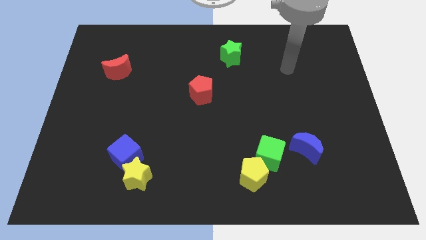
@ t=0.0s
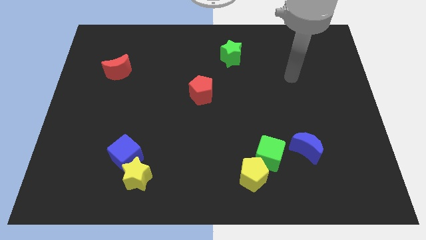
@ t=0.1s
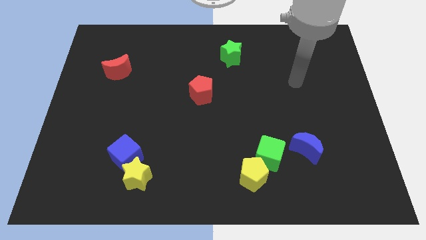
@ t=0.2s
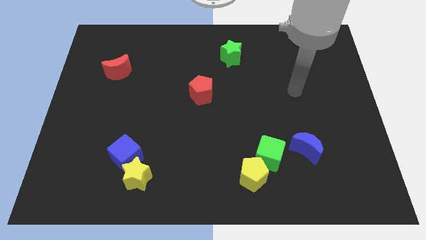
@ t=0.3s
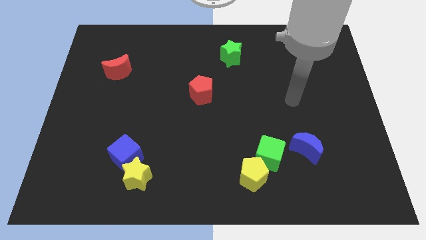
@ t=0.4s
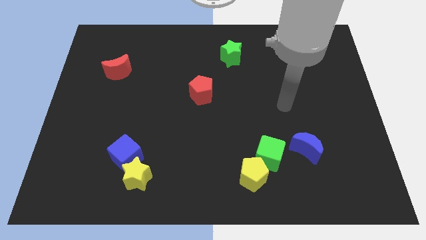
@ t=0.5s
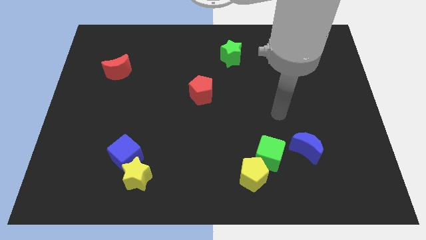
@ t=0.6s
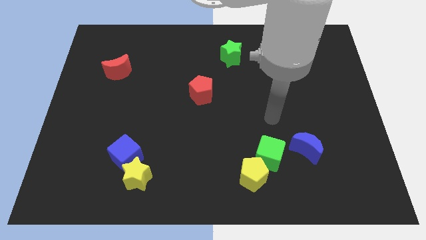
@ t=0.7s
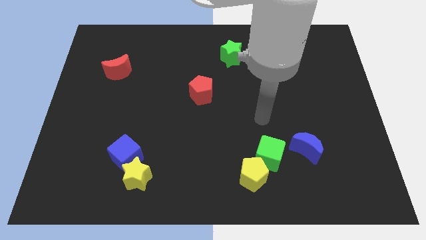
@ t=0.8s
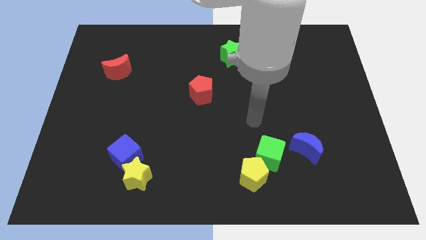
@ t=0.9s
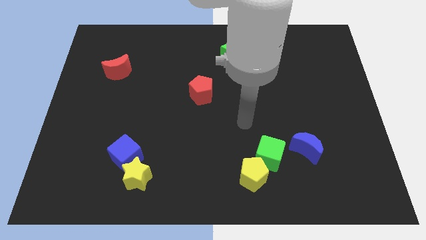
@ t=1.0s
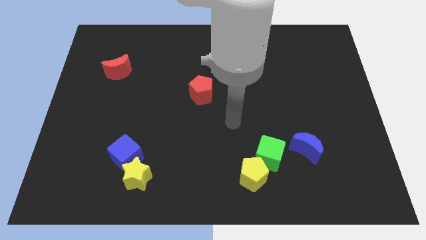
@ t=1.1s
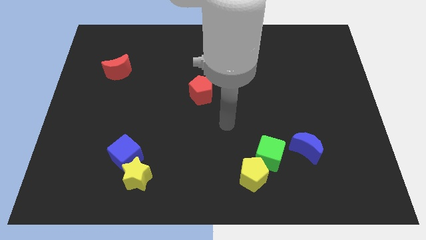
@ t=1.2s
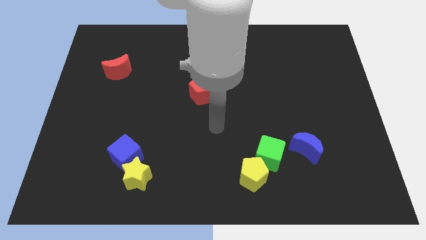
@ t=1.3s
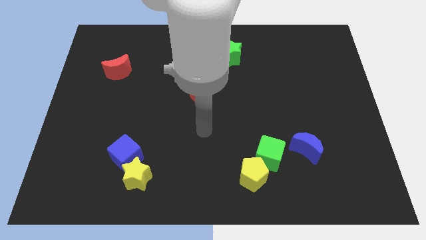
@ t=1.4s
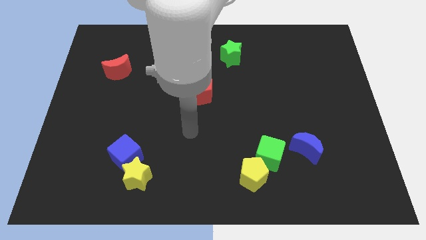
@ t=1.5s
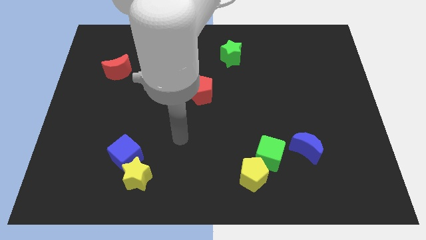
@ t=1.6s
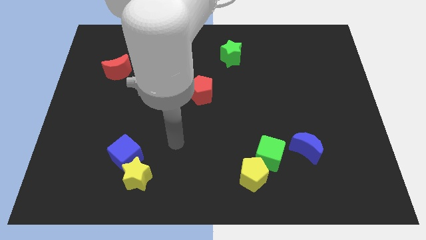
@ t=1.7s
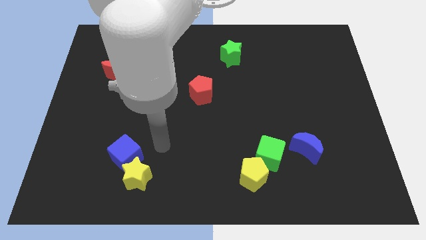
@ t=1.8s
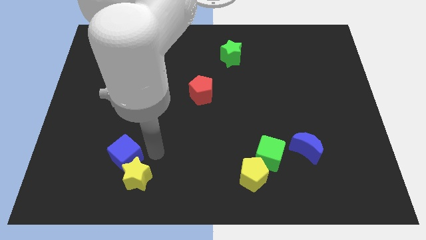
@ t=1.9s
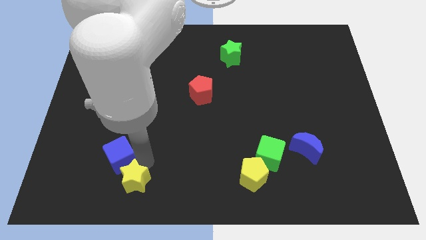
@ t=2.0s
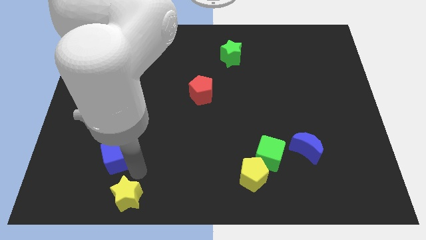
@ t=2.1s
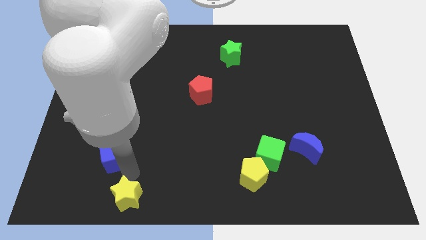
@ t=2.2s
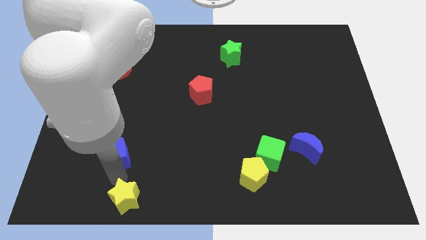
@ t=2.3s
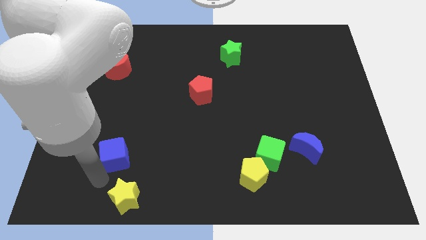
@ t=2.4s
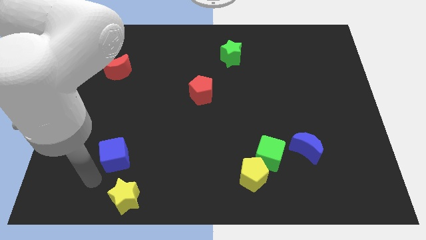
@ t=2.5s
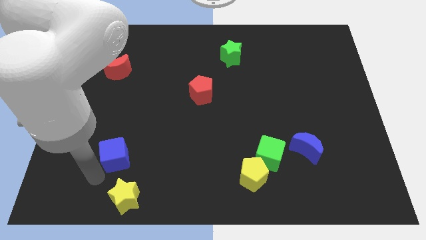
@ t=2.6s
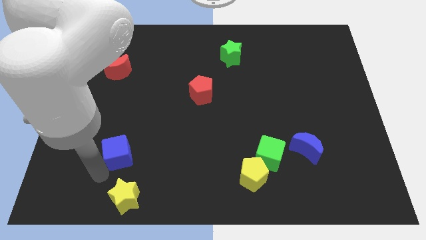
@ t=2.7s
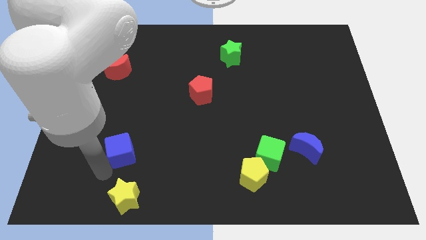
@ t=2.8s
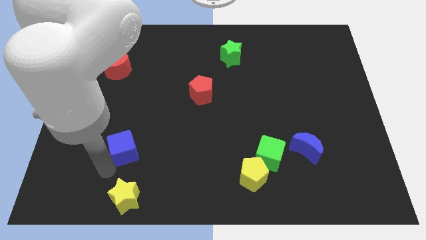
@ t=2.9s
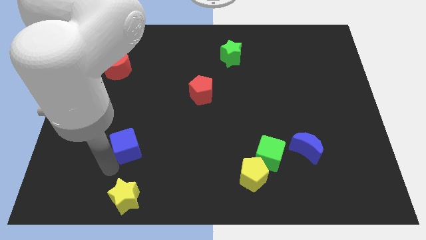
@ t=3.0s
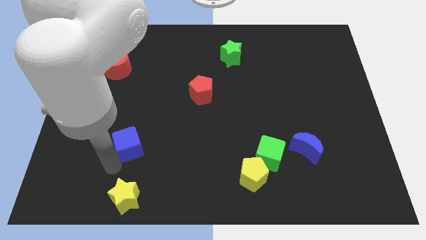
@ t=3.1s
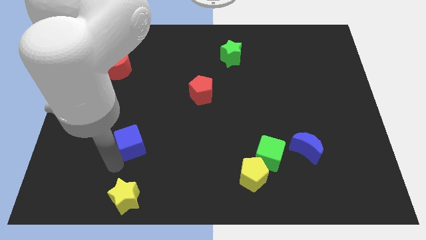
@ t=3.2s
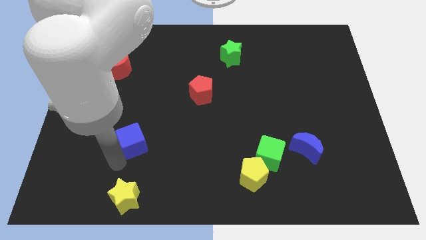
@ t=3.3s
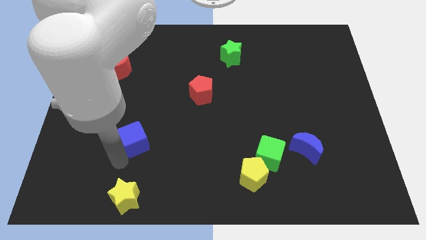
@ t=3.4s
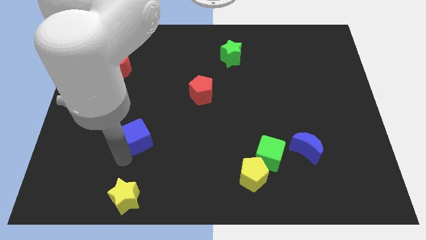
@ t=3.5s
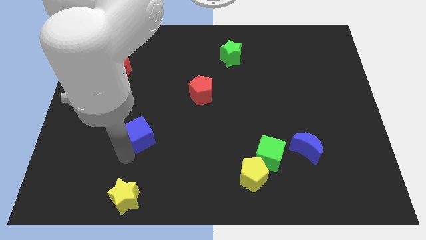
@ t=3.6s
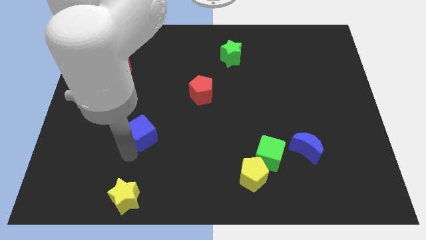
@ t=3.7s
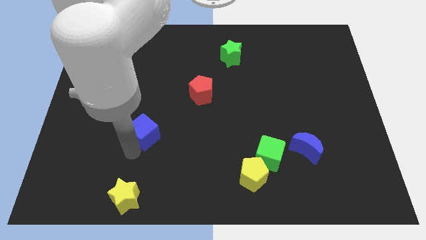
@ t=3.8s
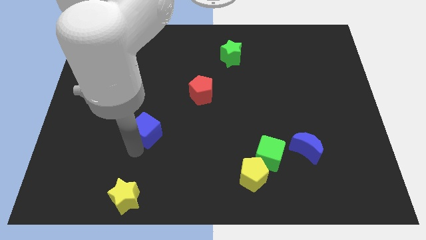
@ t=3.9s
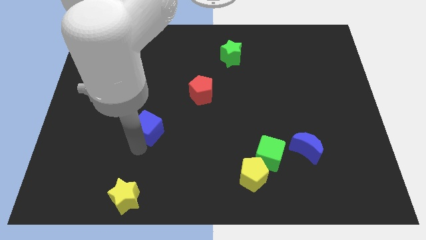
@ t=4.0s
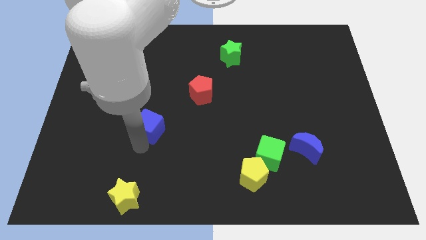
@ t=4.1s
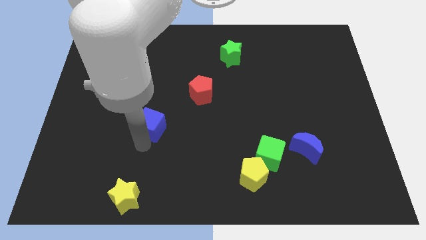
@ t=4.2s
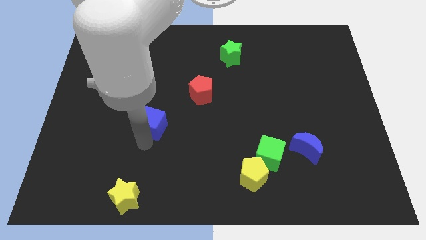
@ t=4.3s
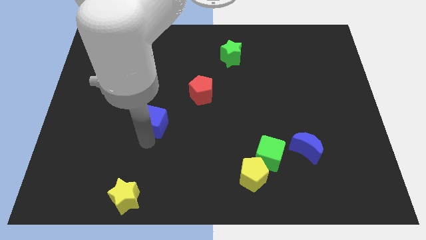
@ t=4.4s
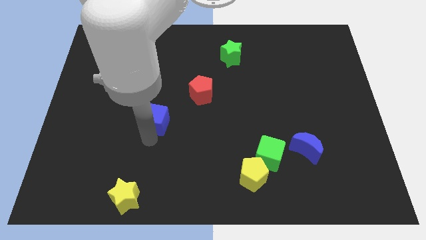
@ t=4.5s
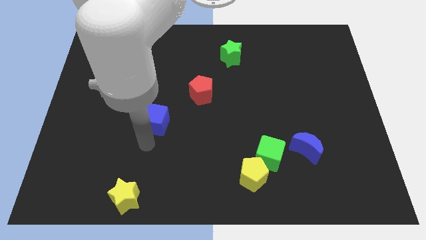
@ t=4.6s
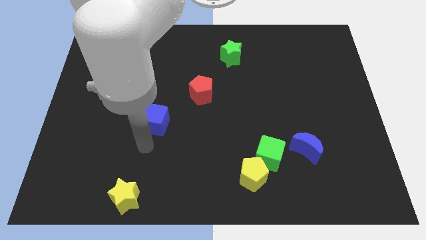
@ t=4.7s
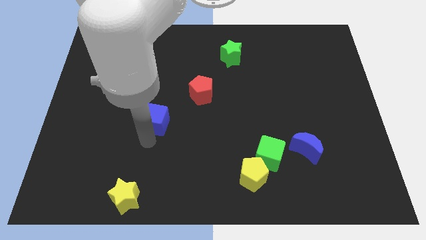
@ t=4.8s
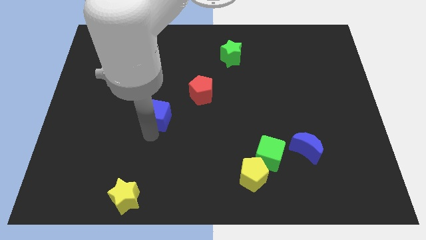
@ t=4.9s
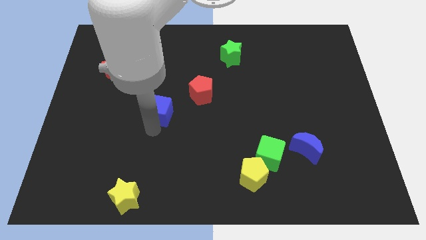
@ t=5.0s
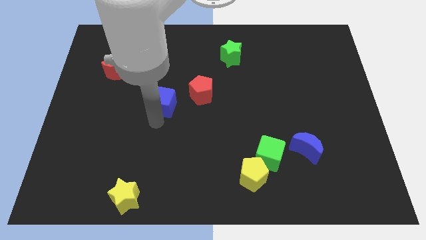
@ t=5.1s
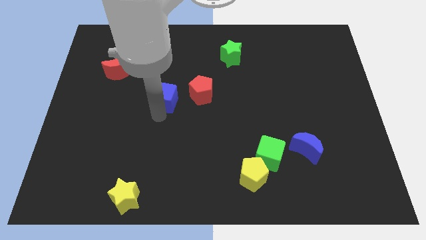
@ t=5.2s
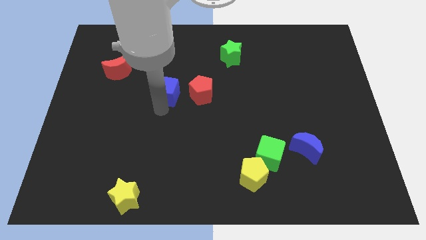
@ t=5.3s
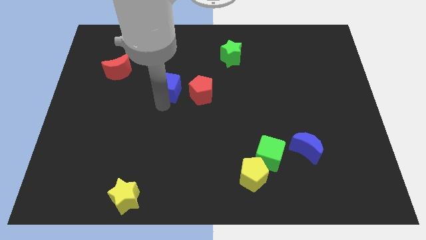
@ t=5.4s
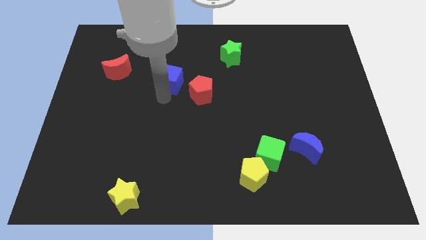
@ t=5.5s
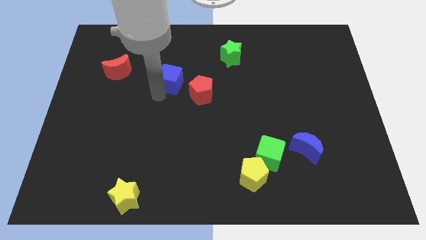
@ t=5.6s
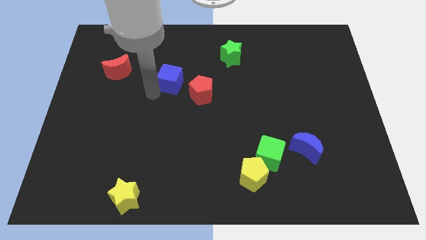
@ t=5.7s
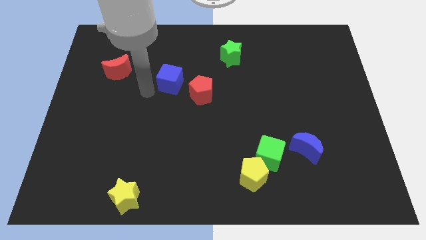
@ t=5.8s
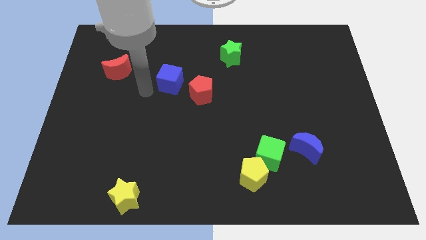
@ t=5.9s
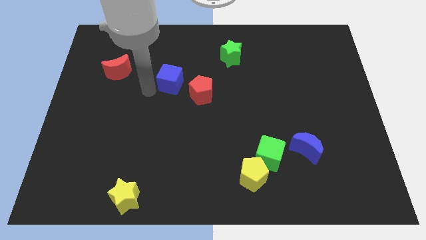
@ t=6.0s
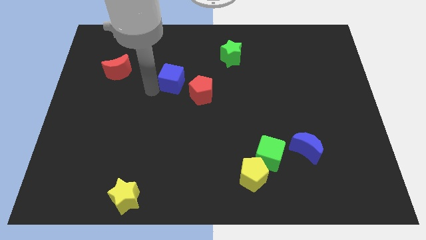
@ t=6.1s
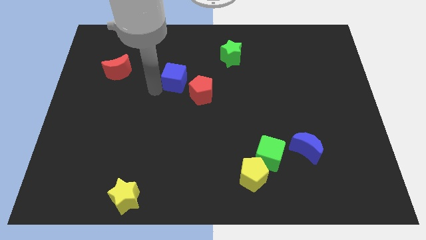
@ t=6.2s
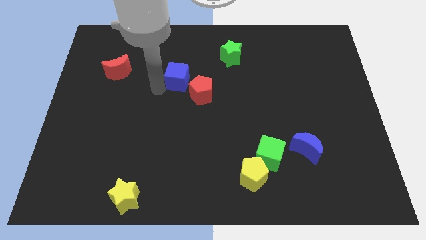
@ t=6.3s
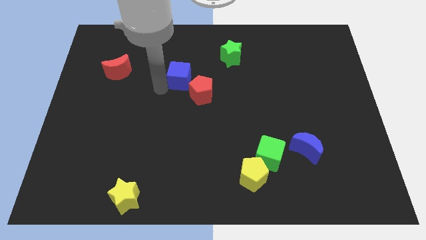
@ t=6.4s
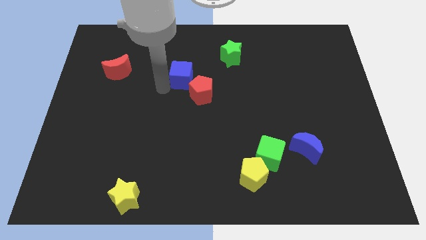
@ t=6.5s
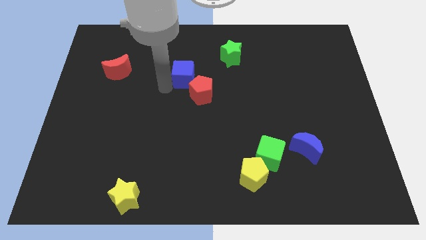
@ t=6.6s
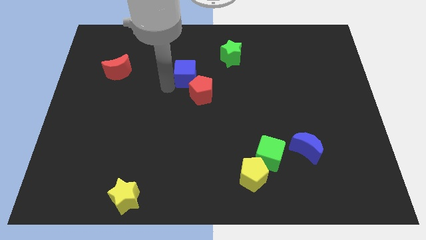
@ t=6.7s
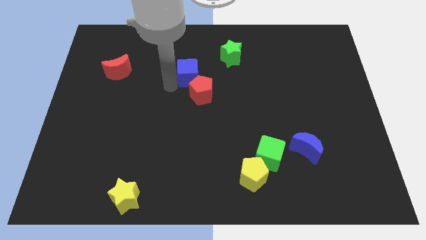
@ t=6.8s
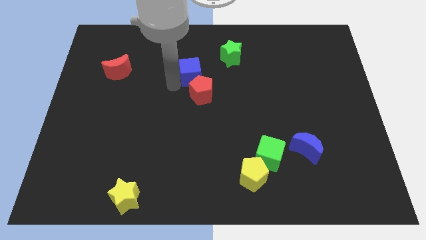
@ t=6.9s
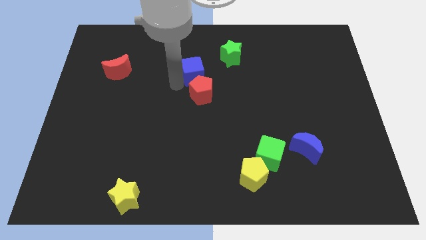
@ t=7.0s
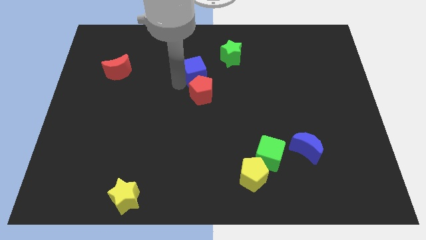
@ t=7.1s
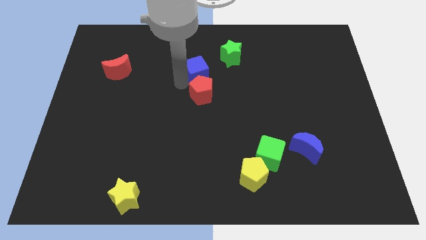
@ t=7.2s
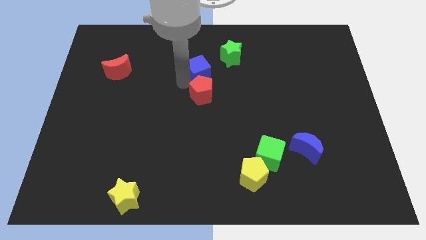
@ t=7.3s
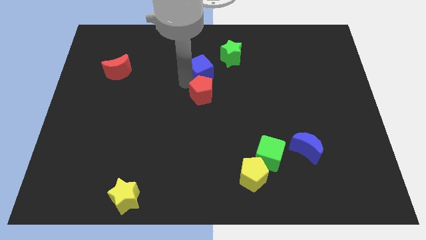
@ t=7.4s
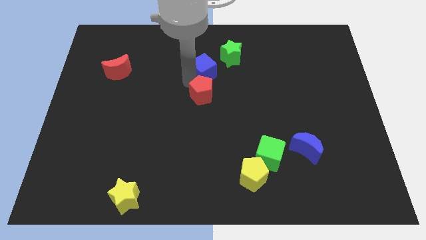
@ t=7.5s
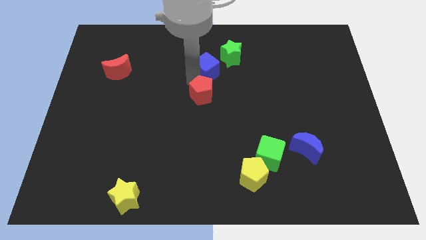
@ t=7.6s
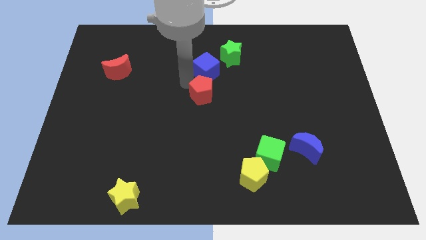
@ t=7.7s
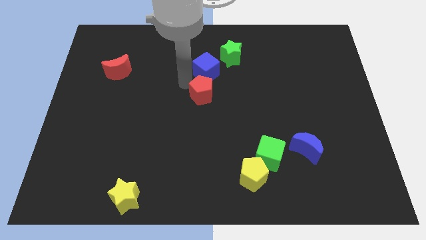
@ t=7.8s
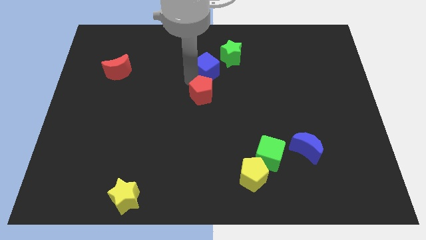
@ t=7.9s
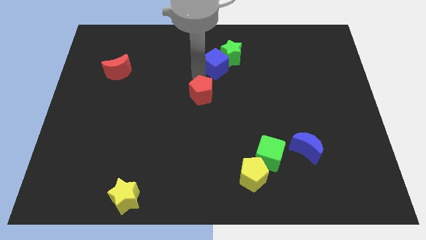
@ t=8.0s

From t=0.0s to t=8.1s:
slide the blue cube next to the green star

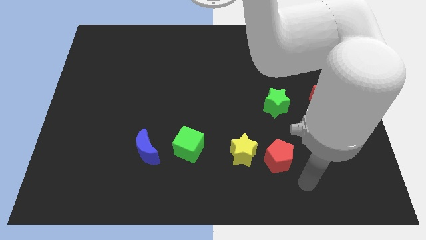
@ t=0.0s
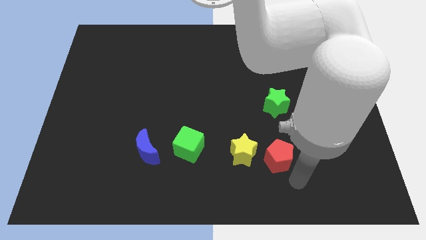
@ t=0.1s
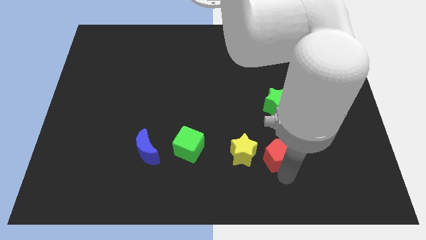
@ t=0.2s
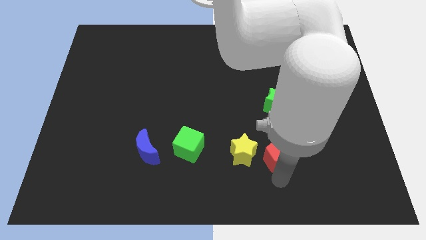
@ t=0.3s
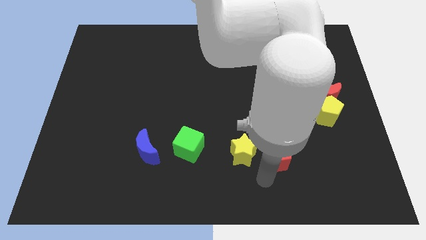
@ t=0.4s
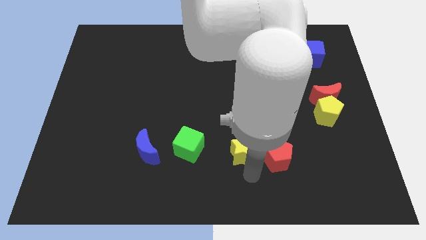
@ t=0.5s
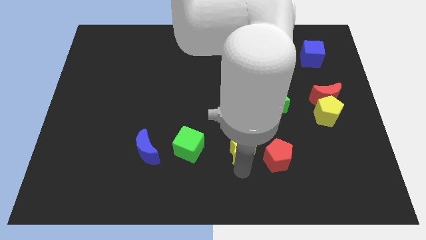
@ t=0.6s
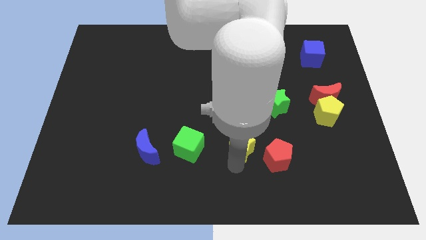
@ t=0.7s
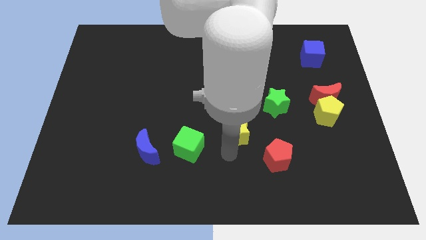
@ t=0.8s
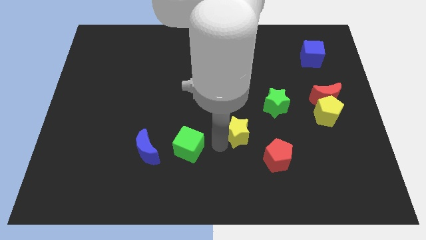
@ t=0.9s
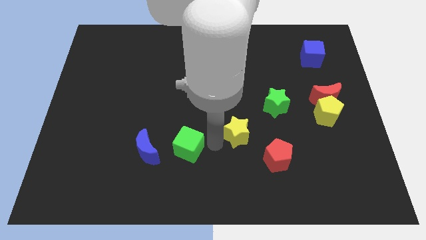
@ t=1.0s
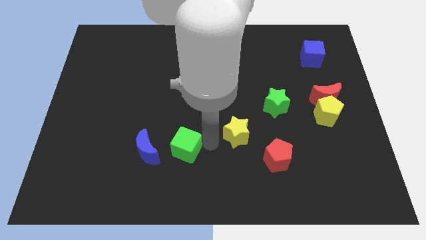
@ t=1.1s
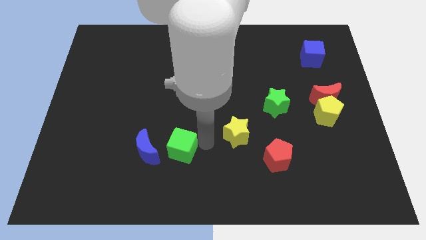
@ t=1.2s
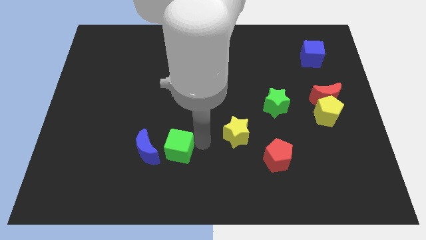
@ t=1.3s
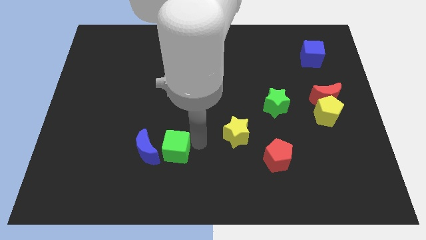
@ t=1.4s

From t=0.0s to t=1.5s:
move the green cube close to the blue moon
